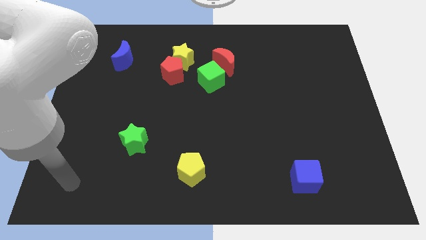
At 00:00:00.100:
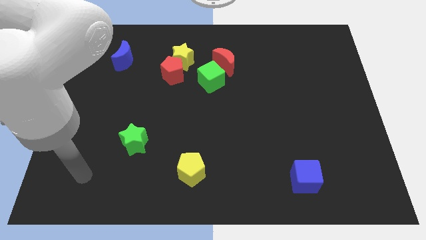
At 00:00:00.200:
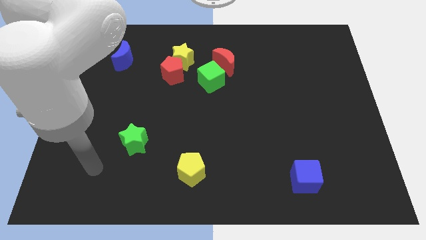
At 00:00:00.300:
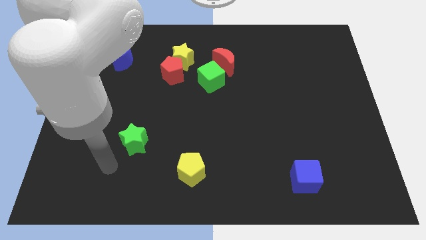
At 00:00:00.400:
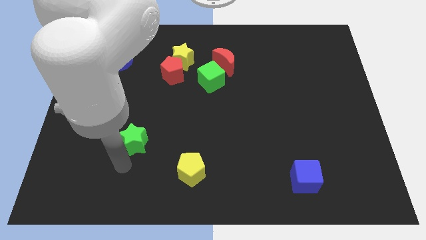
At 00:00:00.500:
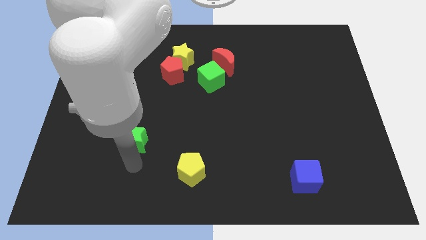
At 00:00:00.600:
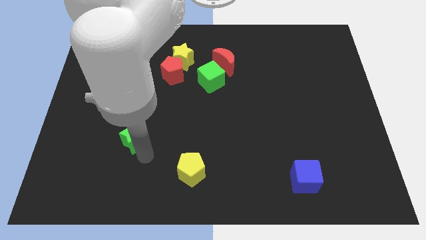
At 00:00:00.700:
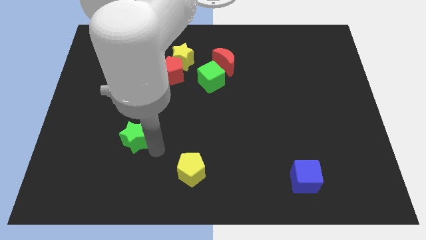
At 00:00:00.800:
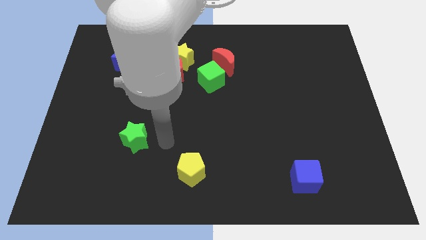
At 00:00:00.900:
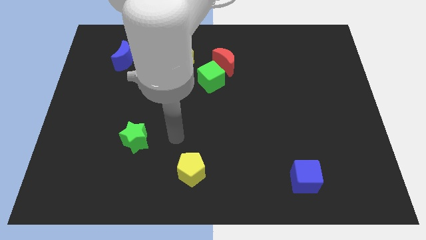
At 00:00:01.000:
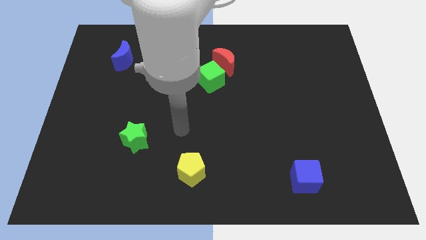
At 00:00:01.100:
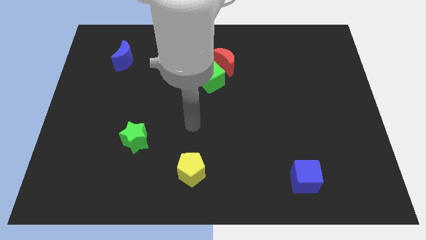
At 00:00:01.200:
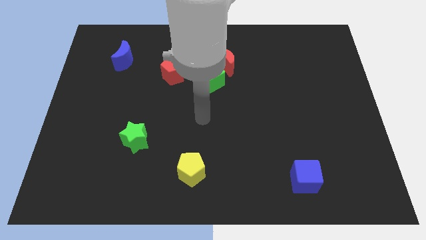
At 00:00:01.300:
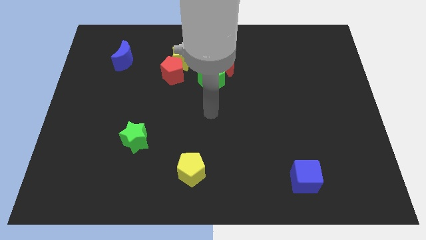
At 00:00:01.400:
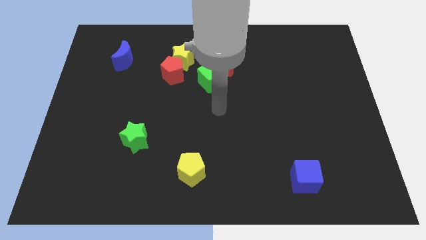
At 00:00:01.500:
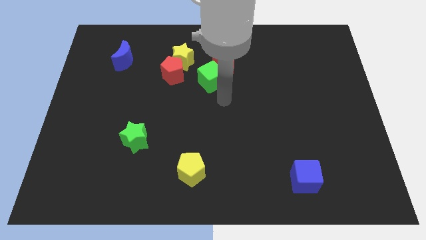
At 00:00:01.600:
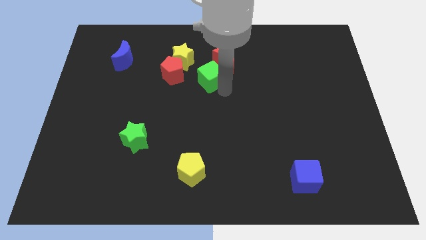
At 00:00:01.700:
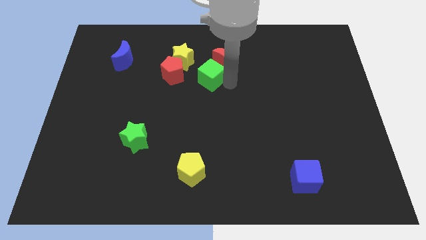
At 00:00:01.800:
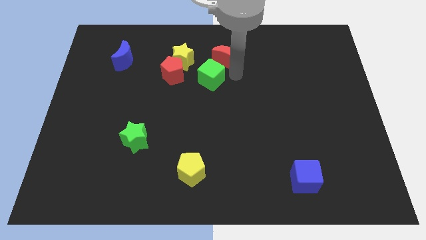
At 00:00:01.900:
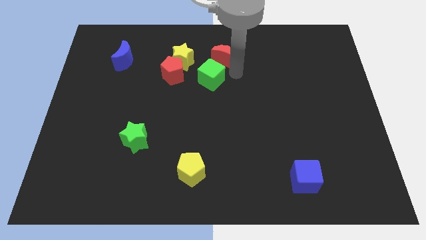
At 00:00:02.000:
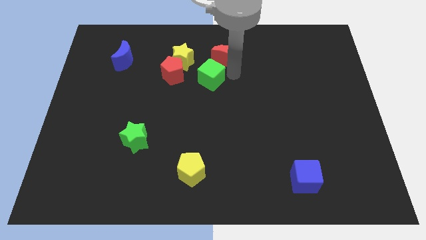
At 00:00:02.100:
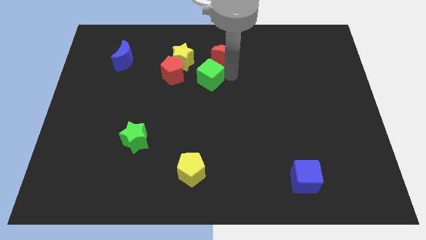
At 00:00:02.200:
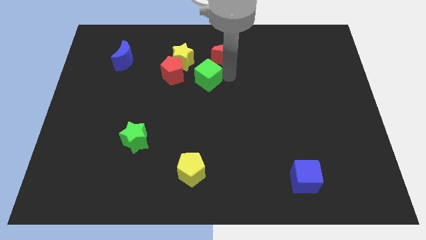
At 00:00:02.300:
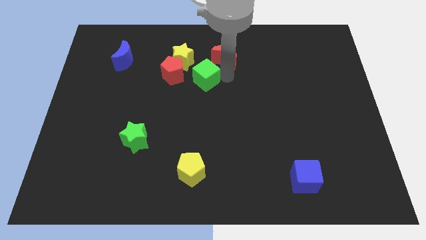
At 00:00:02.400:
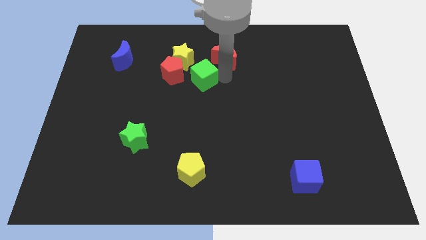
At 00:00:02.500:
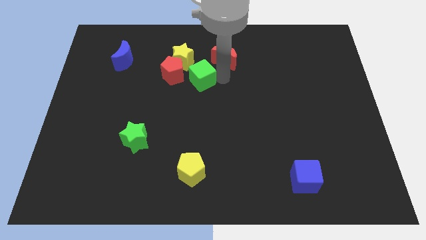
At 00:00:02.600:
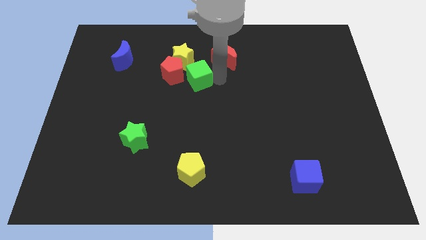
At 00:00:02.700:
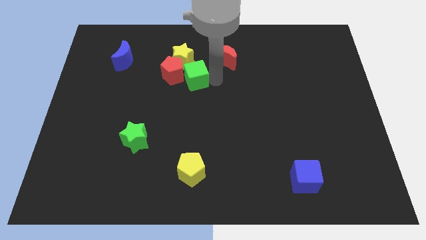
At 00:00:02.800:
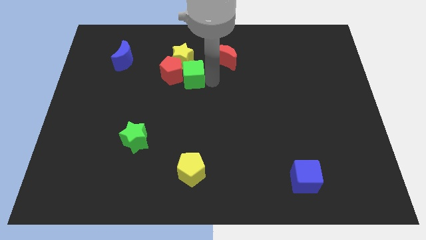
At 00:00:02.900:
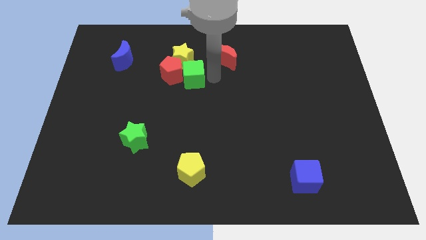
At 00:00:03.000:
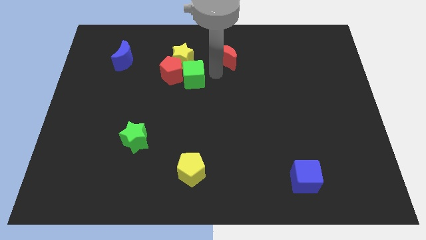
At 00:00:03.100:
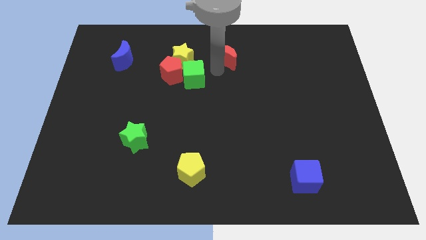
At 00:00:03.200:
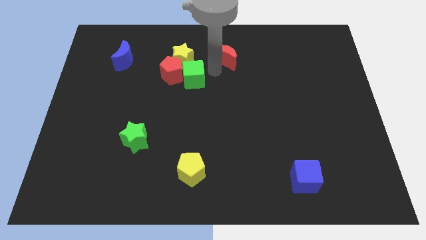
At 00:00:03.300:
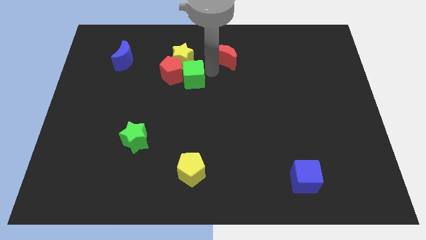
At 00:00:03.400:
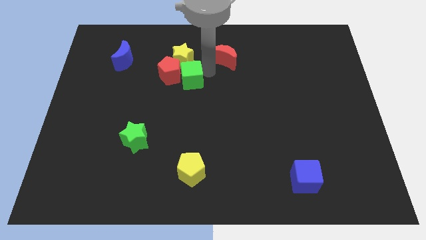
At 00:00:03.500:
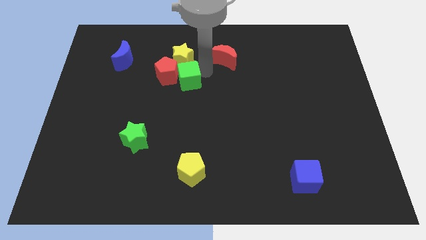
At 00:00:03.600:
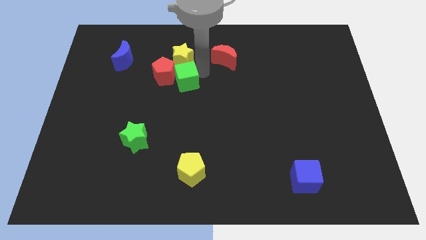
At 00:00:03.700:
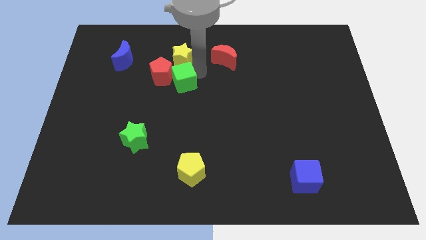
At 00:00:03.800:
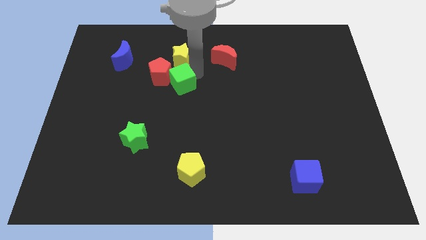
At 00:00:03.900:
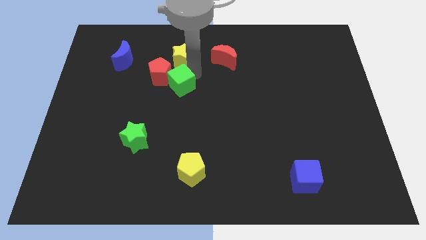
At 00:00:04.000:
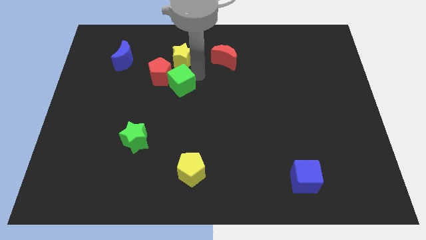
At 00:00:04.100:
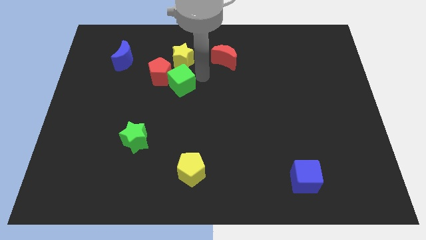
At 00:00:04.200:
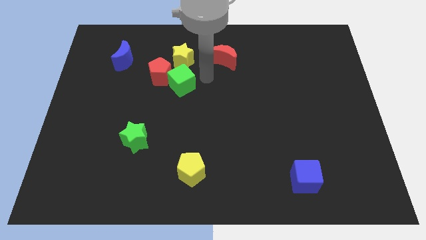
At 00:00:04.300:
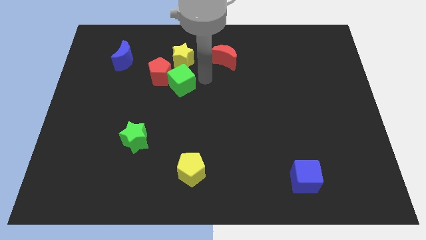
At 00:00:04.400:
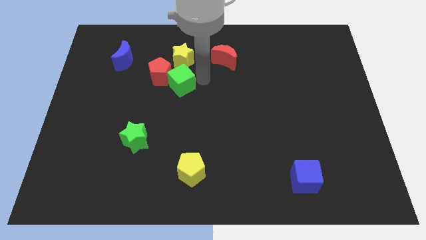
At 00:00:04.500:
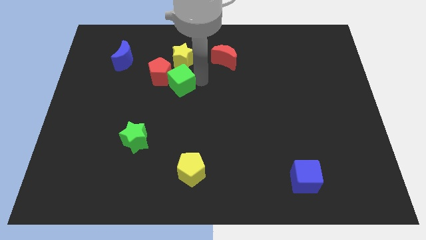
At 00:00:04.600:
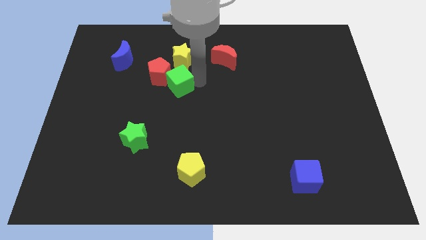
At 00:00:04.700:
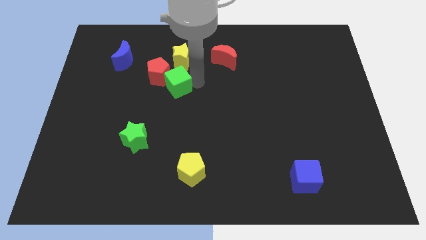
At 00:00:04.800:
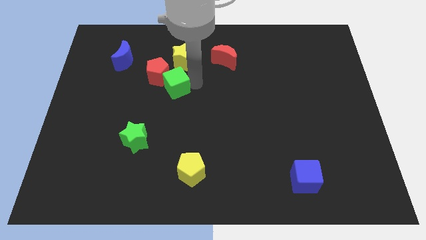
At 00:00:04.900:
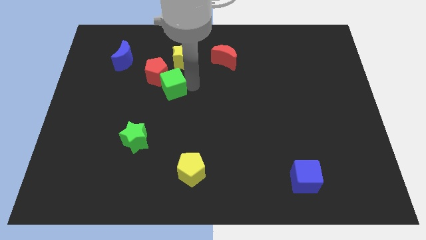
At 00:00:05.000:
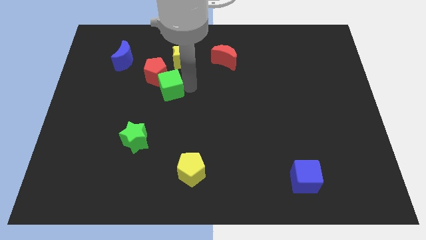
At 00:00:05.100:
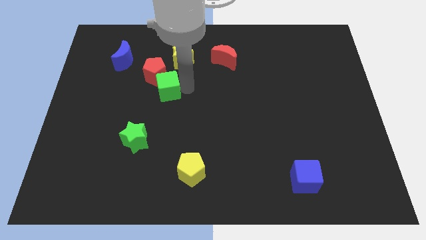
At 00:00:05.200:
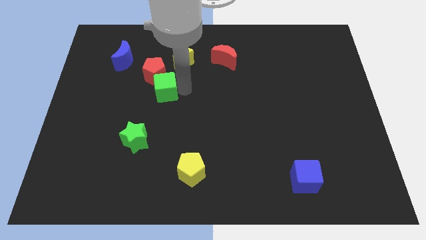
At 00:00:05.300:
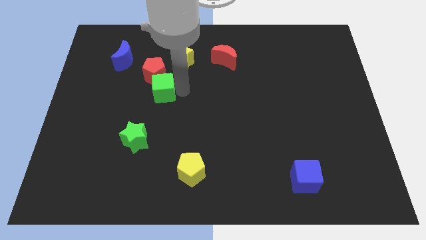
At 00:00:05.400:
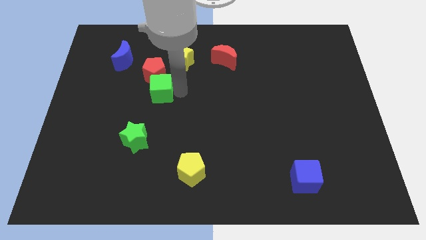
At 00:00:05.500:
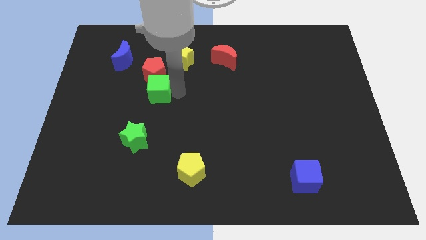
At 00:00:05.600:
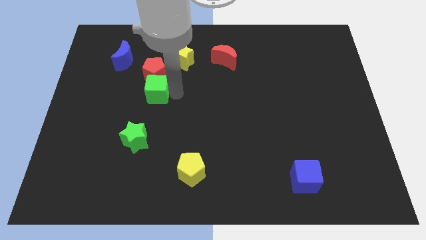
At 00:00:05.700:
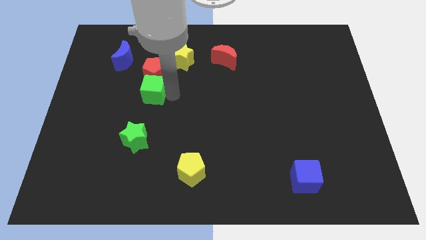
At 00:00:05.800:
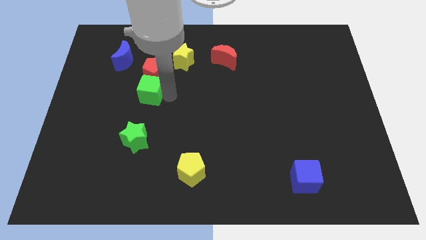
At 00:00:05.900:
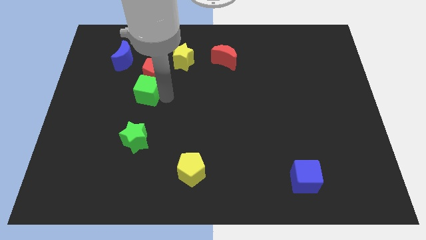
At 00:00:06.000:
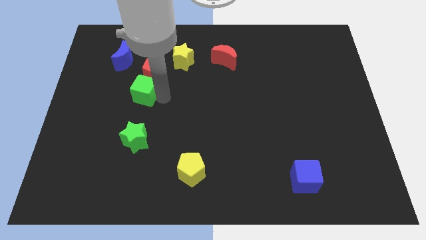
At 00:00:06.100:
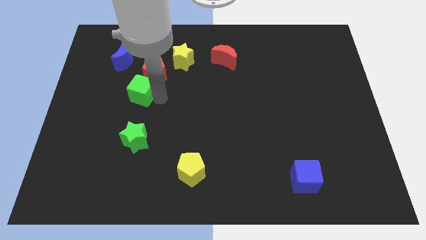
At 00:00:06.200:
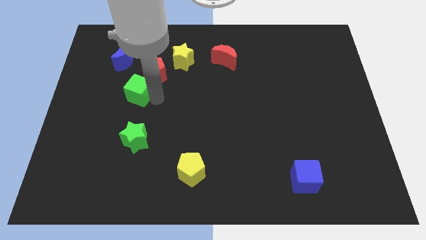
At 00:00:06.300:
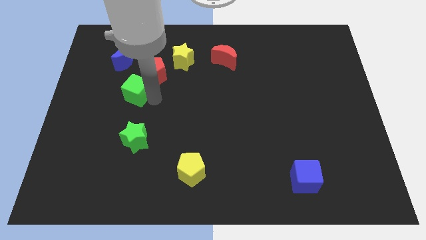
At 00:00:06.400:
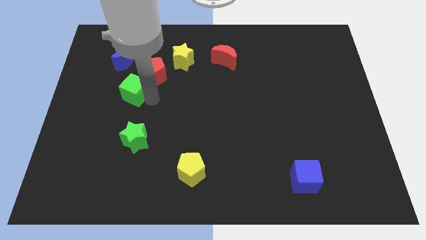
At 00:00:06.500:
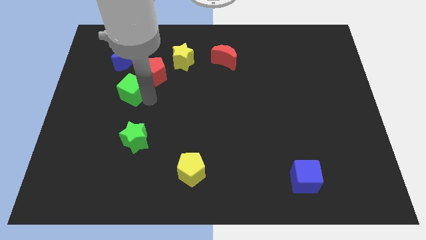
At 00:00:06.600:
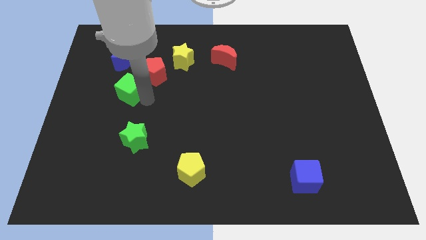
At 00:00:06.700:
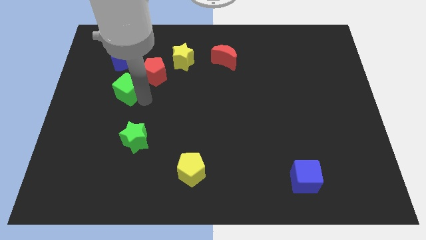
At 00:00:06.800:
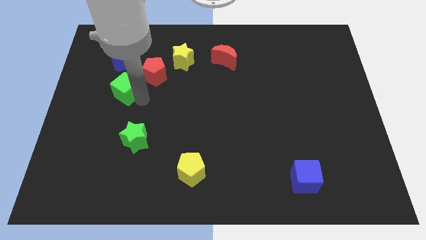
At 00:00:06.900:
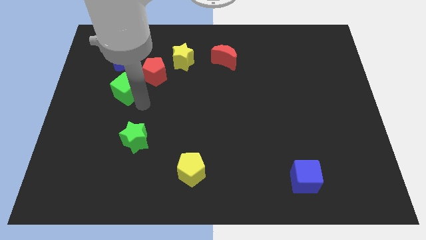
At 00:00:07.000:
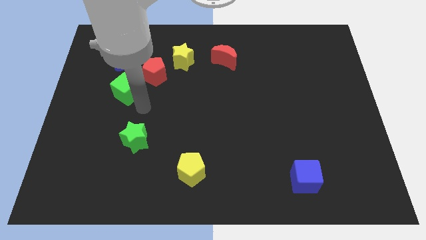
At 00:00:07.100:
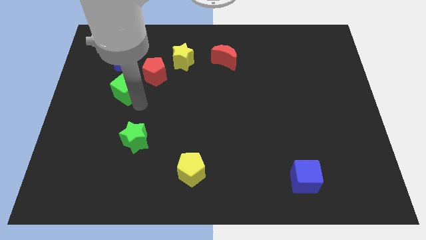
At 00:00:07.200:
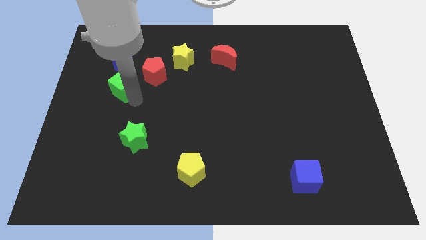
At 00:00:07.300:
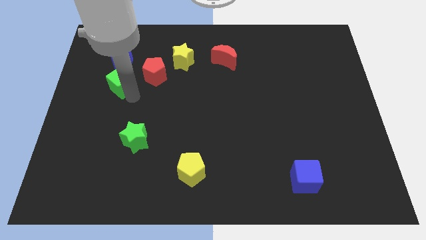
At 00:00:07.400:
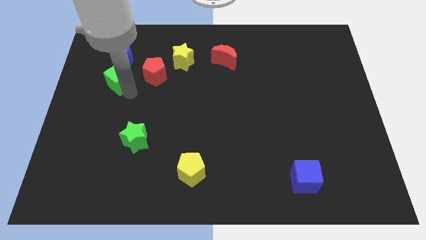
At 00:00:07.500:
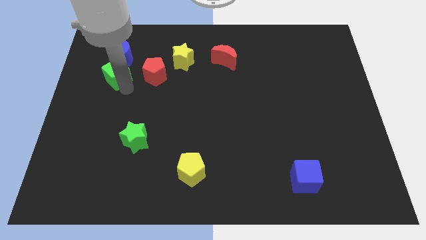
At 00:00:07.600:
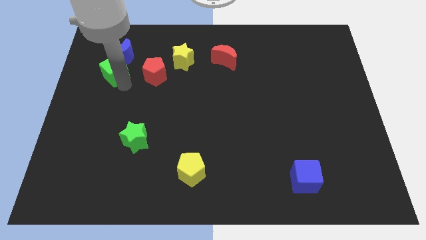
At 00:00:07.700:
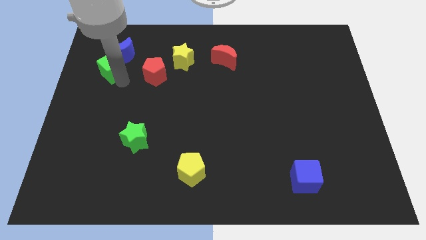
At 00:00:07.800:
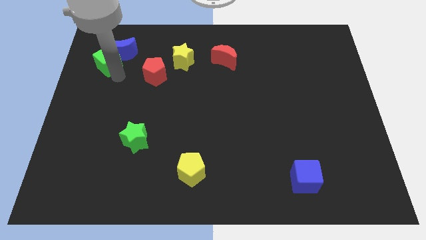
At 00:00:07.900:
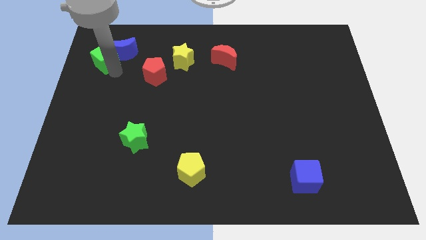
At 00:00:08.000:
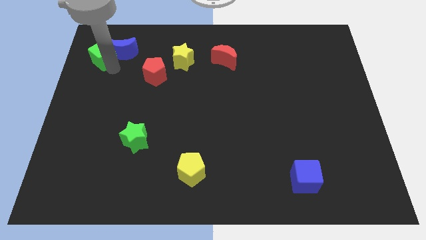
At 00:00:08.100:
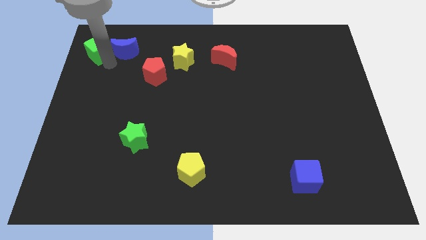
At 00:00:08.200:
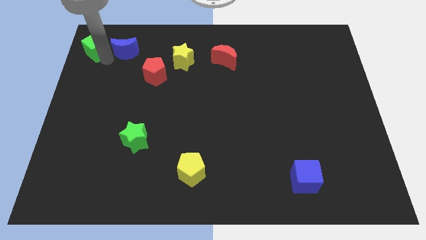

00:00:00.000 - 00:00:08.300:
slide the green cube to the top left
